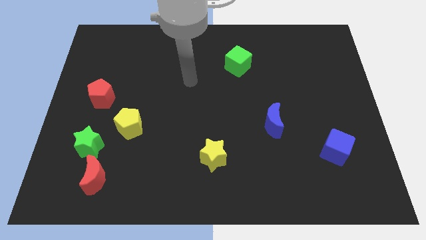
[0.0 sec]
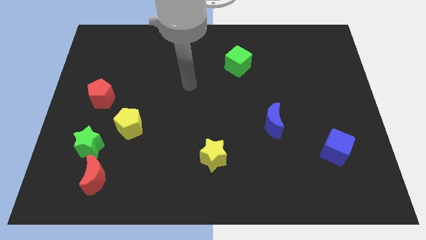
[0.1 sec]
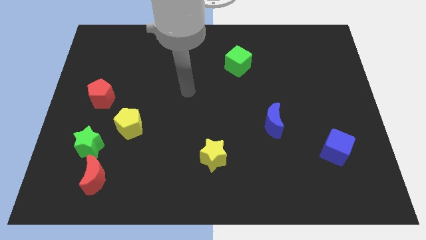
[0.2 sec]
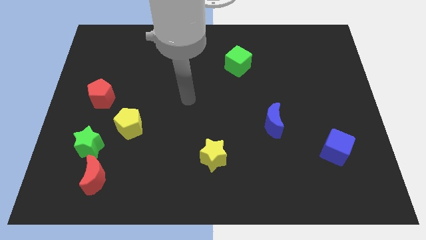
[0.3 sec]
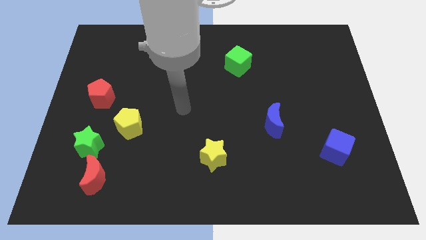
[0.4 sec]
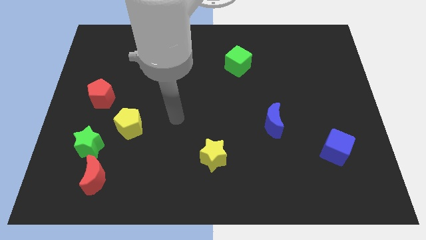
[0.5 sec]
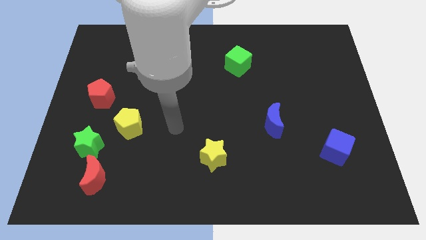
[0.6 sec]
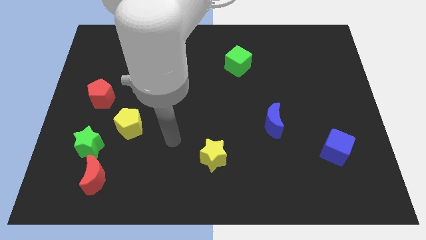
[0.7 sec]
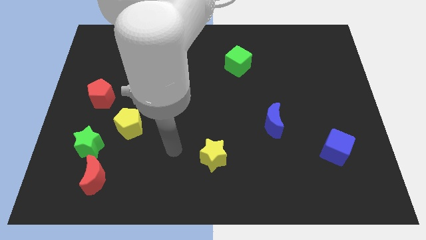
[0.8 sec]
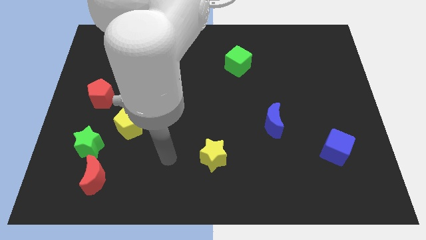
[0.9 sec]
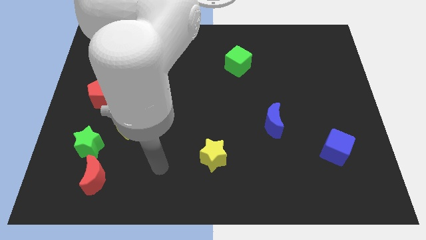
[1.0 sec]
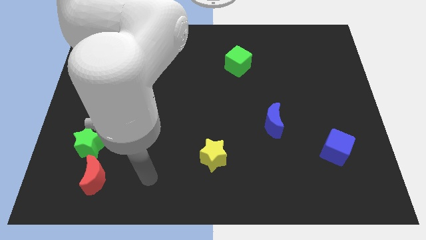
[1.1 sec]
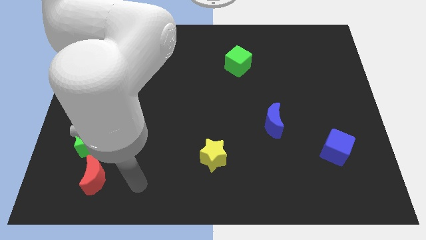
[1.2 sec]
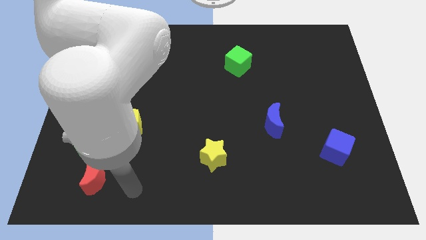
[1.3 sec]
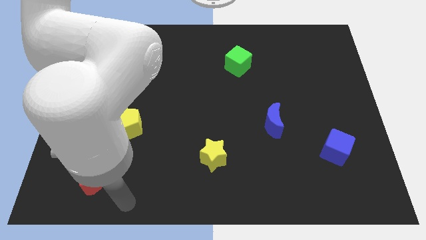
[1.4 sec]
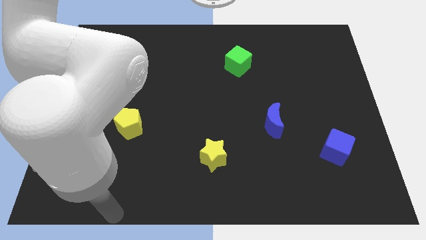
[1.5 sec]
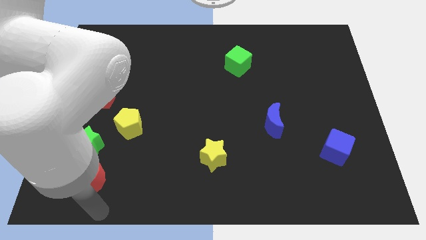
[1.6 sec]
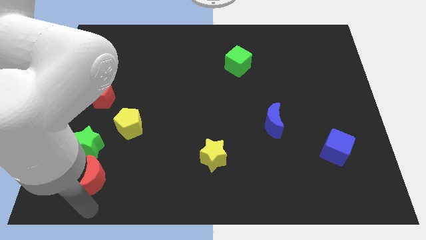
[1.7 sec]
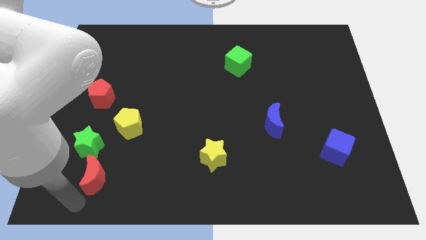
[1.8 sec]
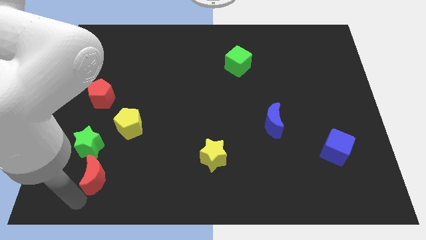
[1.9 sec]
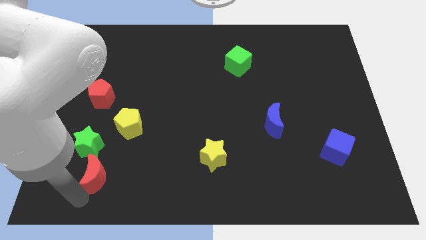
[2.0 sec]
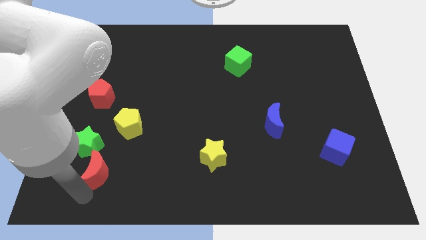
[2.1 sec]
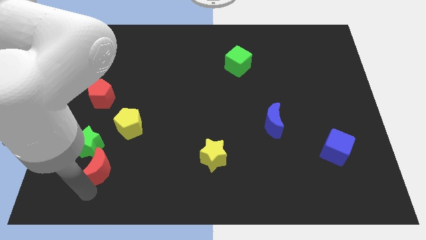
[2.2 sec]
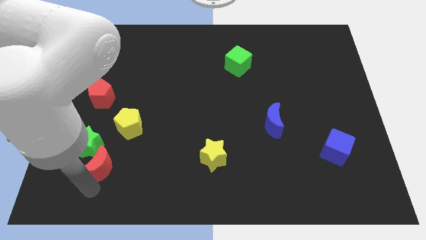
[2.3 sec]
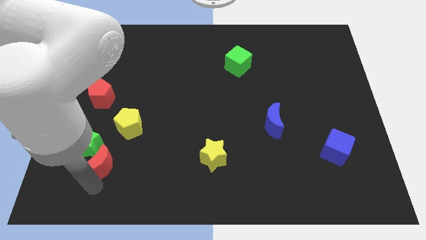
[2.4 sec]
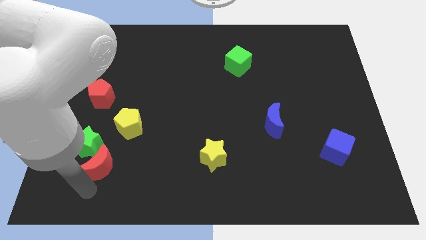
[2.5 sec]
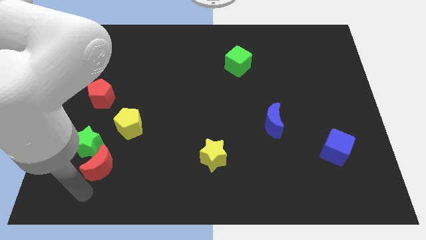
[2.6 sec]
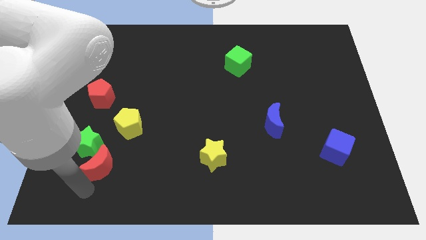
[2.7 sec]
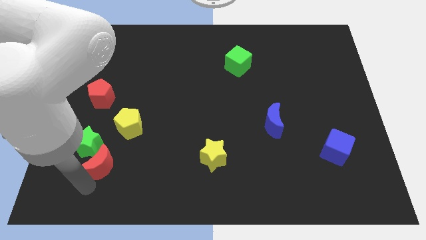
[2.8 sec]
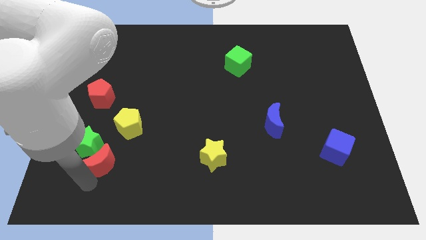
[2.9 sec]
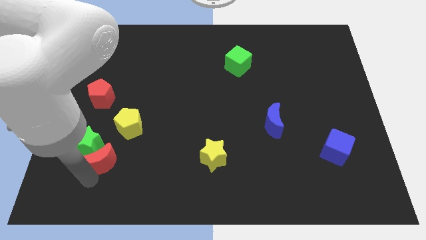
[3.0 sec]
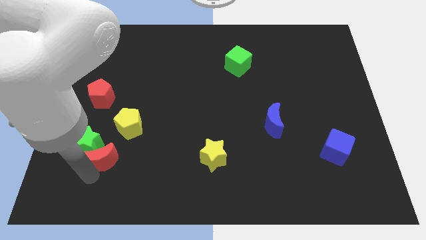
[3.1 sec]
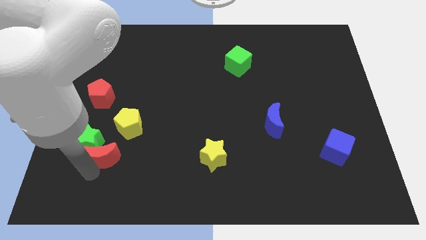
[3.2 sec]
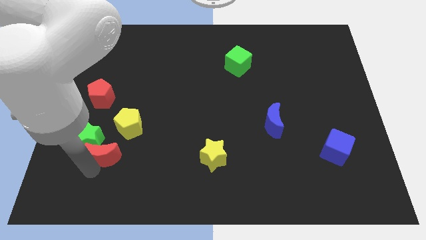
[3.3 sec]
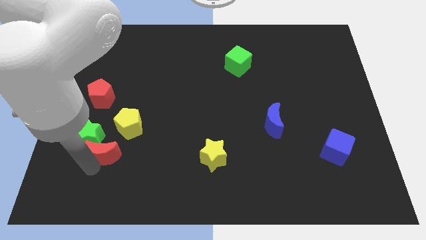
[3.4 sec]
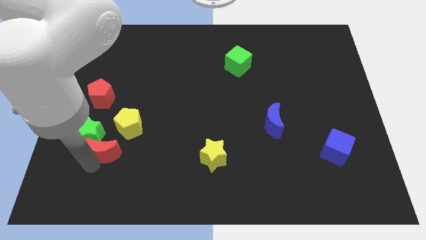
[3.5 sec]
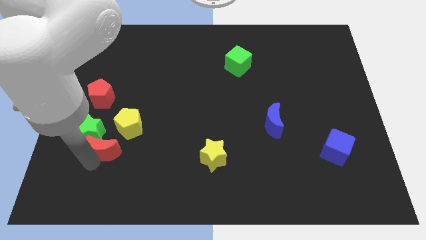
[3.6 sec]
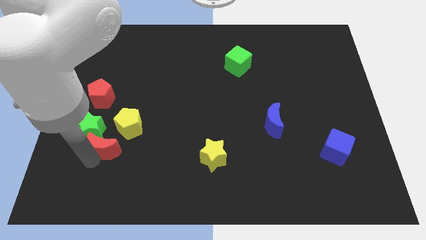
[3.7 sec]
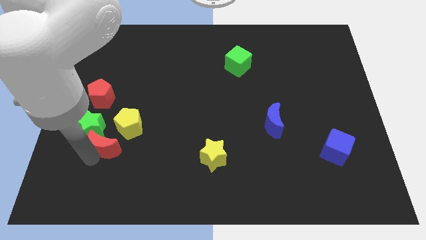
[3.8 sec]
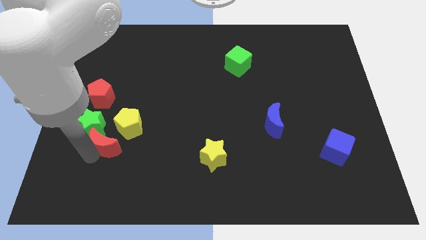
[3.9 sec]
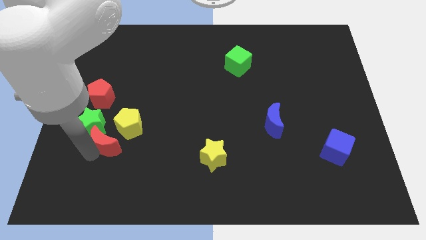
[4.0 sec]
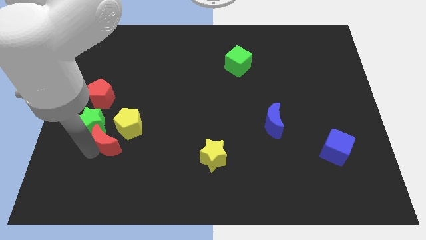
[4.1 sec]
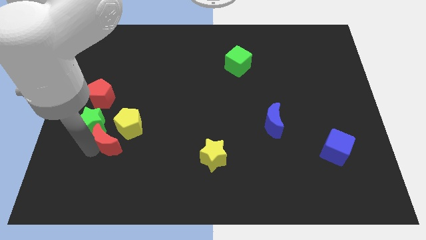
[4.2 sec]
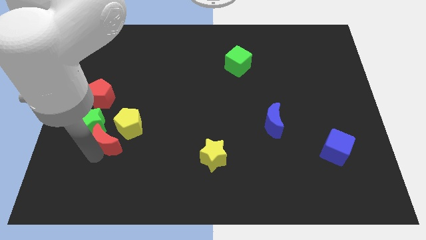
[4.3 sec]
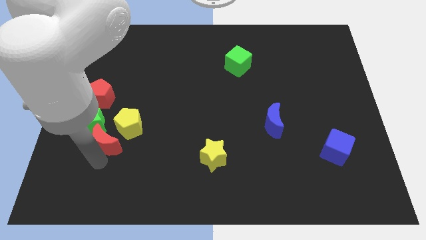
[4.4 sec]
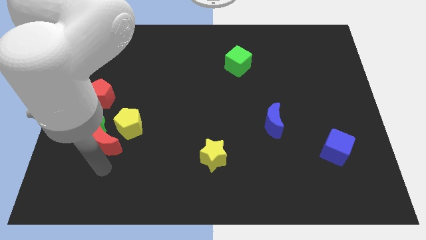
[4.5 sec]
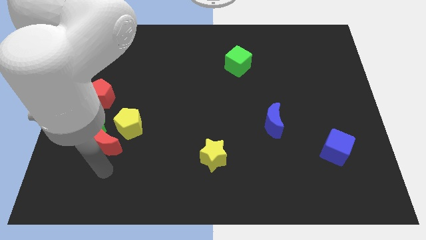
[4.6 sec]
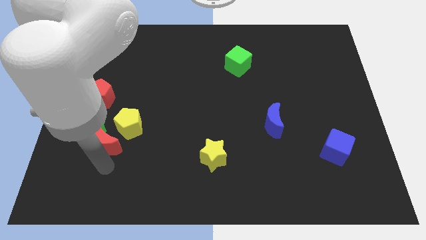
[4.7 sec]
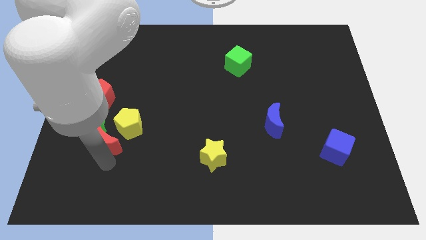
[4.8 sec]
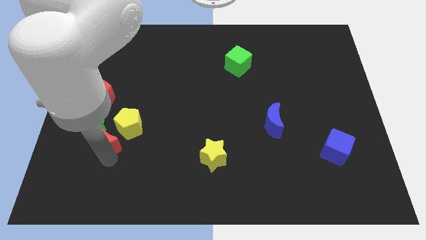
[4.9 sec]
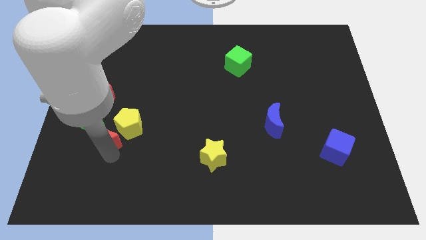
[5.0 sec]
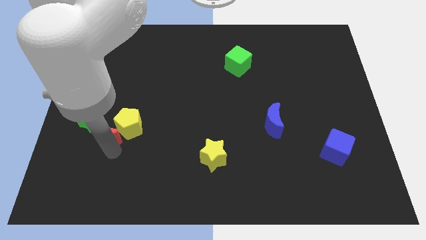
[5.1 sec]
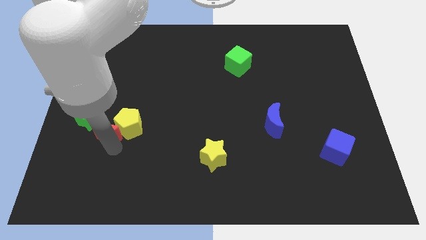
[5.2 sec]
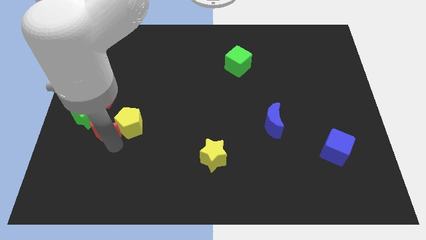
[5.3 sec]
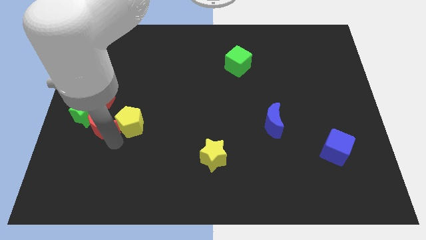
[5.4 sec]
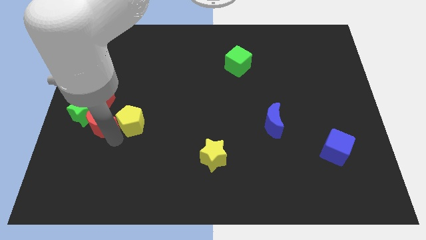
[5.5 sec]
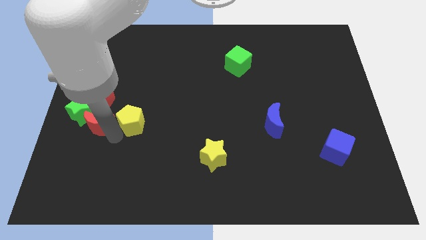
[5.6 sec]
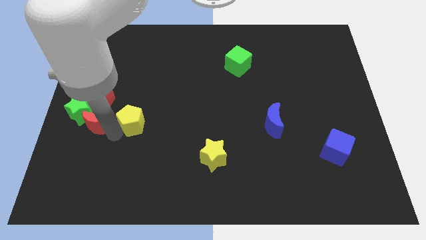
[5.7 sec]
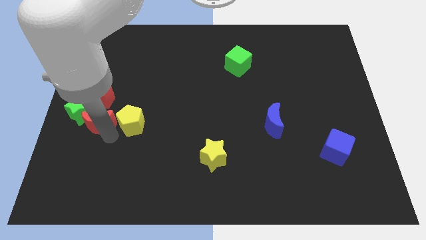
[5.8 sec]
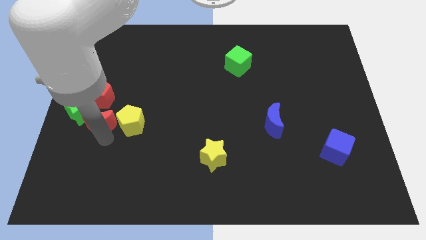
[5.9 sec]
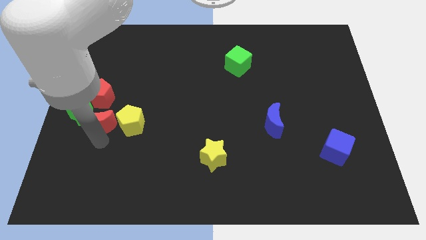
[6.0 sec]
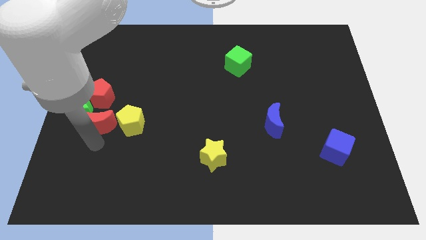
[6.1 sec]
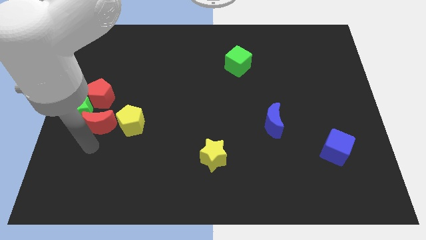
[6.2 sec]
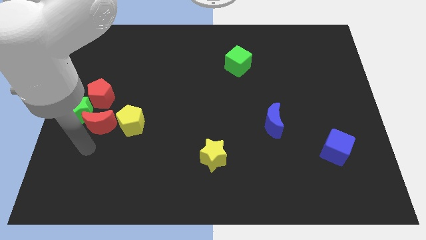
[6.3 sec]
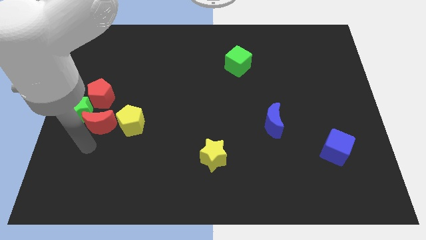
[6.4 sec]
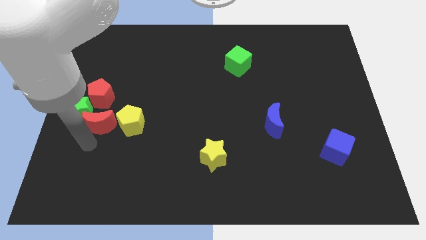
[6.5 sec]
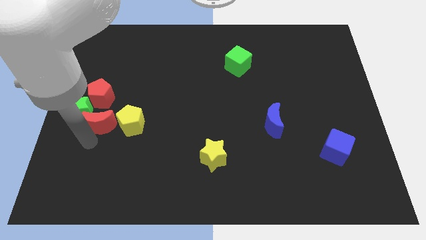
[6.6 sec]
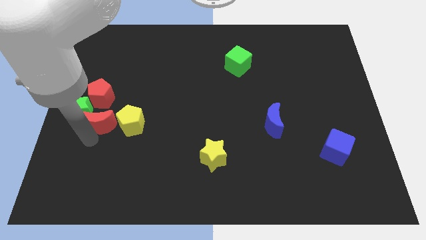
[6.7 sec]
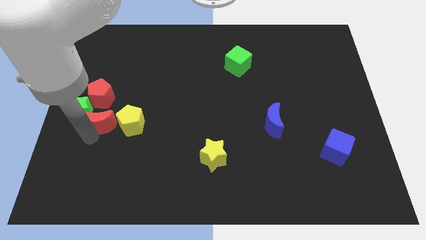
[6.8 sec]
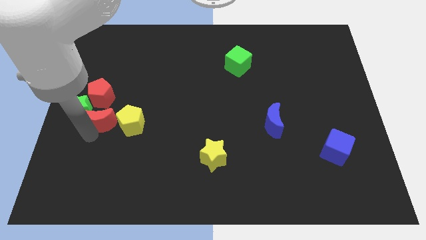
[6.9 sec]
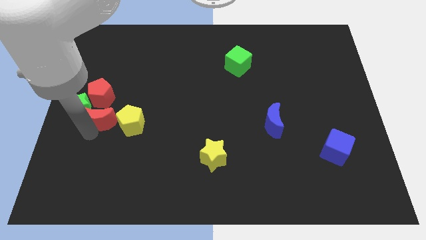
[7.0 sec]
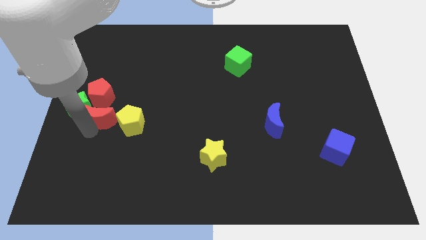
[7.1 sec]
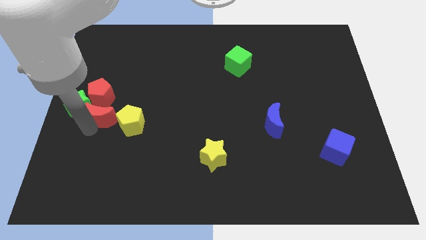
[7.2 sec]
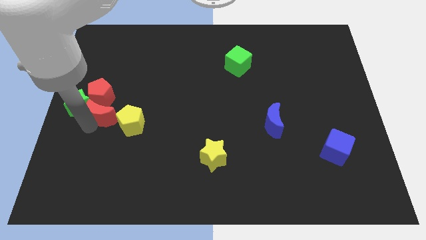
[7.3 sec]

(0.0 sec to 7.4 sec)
slide the red moon to the red pentagon
